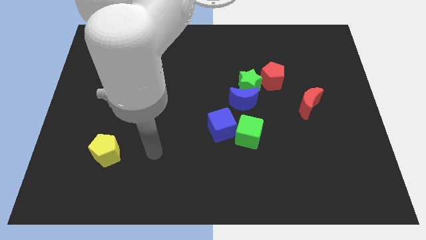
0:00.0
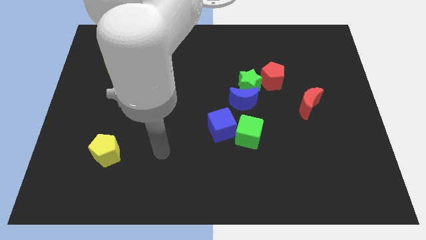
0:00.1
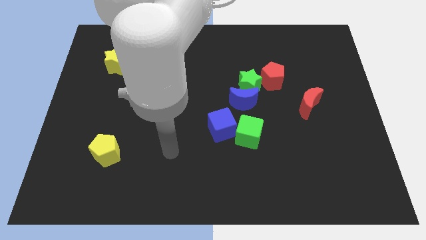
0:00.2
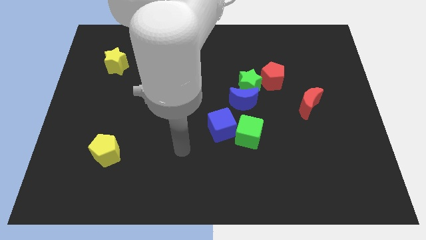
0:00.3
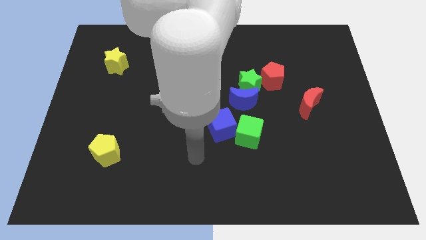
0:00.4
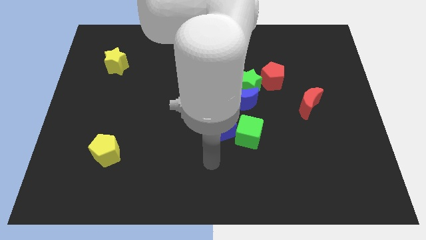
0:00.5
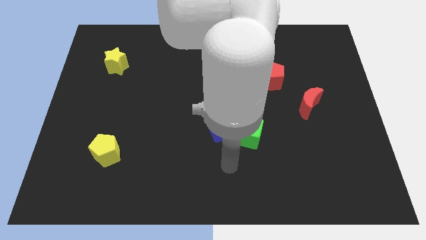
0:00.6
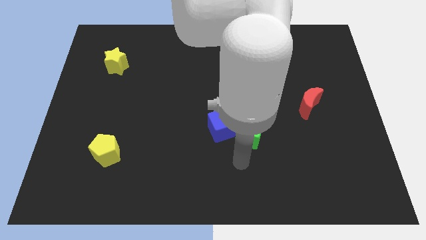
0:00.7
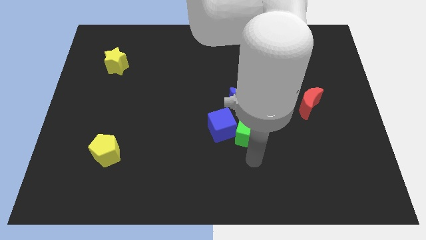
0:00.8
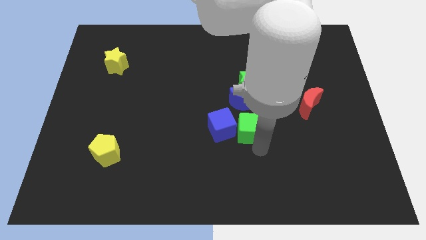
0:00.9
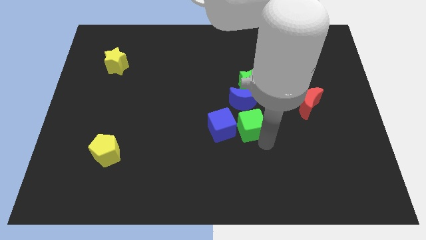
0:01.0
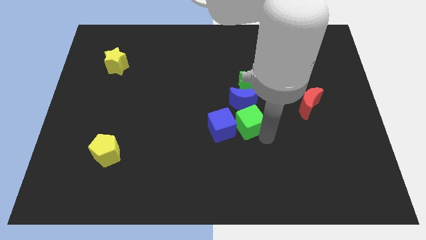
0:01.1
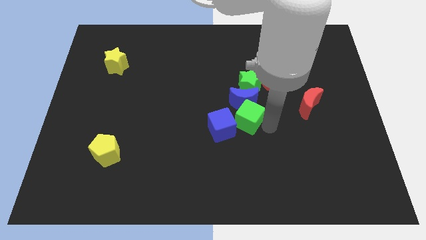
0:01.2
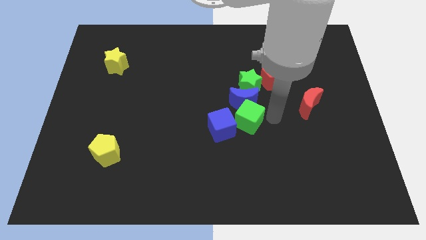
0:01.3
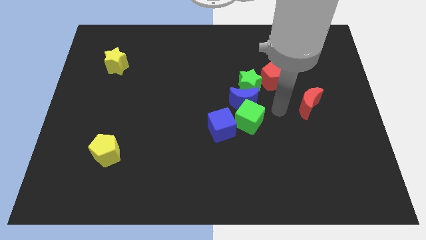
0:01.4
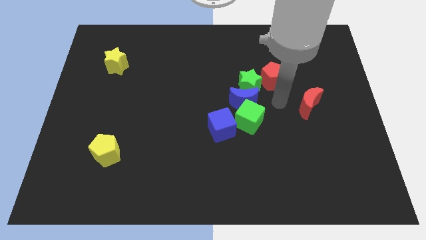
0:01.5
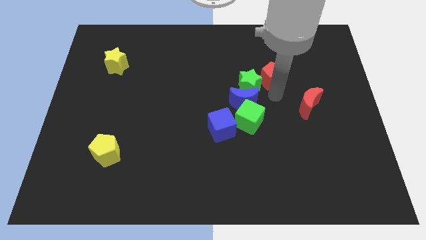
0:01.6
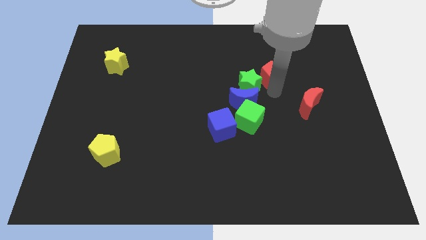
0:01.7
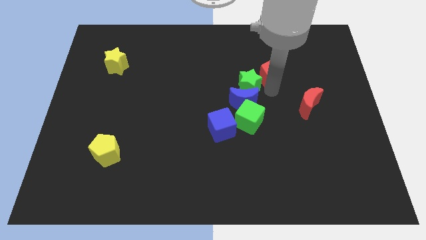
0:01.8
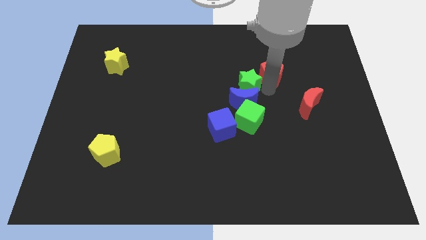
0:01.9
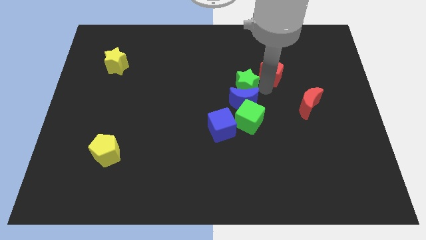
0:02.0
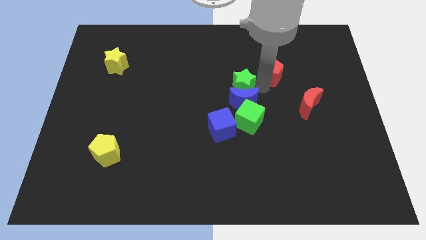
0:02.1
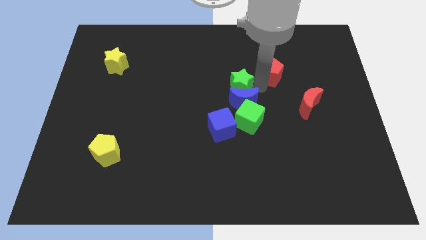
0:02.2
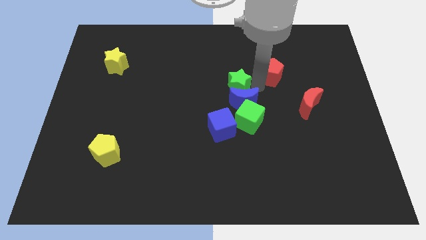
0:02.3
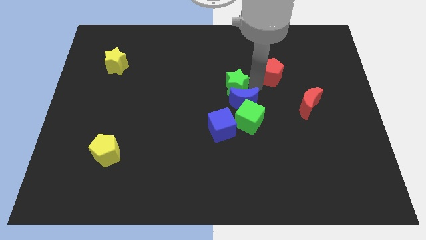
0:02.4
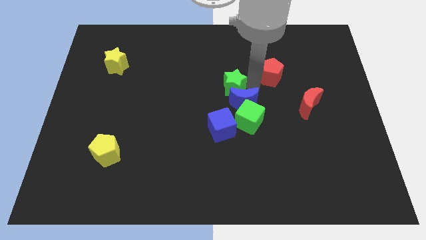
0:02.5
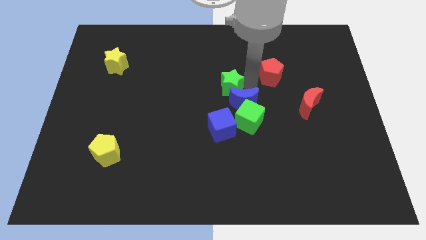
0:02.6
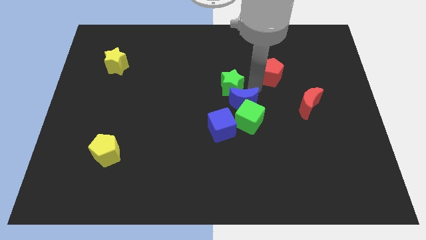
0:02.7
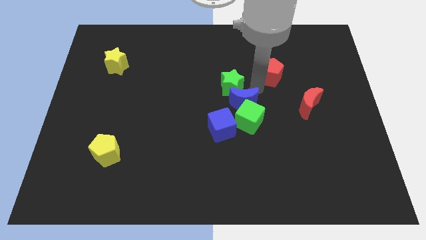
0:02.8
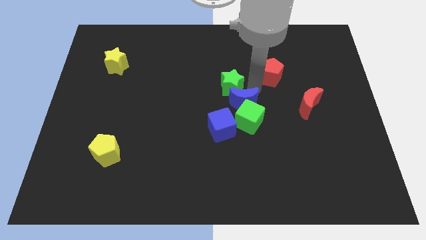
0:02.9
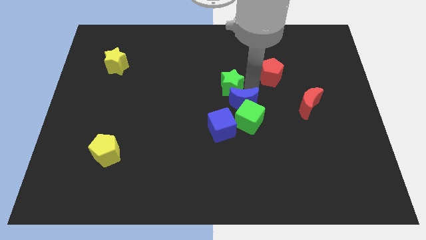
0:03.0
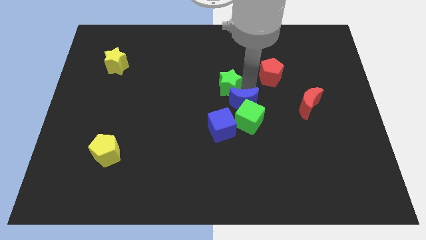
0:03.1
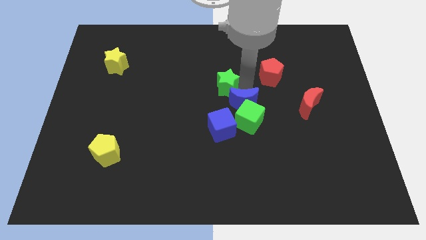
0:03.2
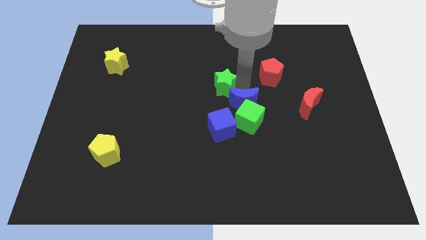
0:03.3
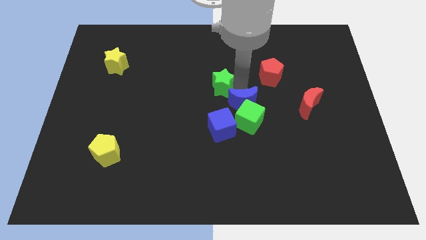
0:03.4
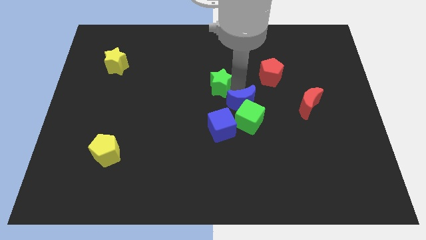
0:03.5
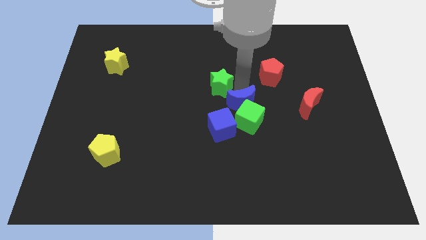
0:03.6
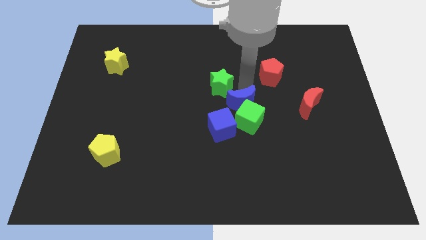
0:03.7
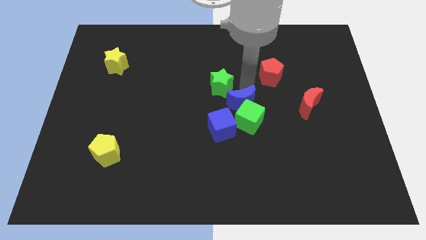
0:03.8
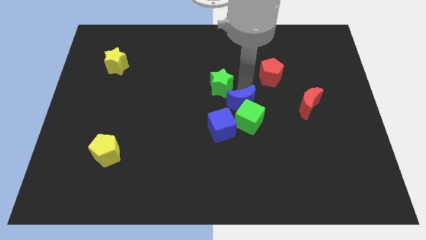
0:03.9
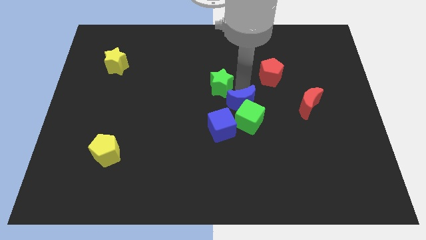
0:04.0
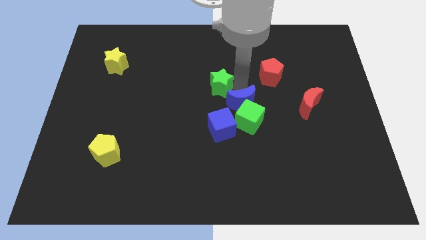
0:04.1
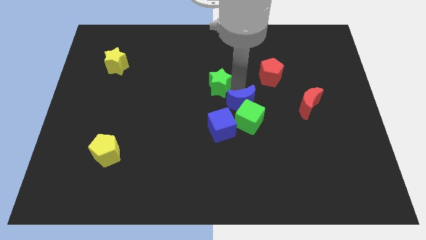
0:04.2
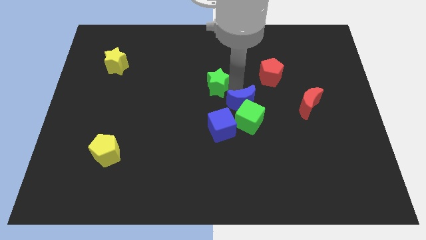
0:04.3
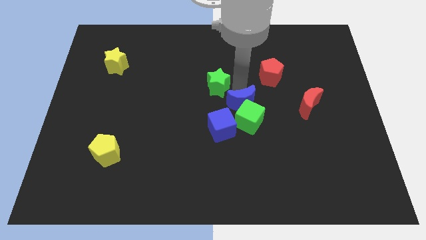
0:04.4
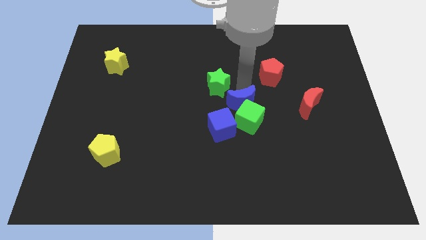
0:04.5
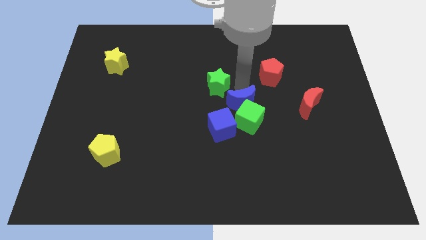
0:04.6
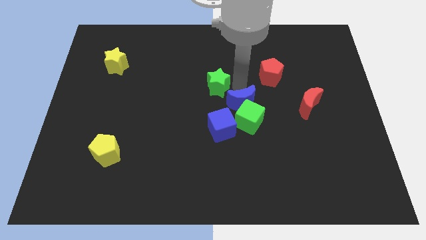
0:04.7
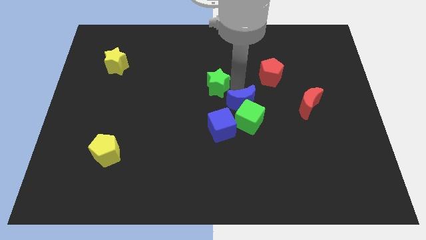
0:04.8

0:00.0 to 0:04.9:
move the green star away from the blue moon and red pentagon

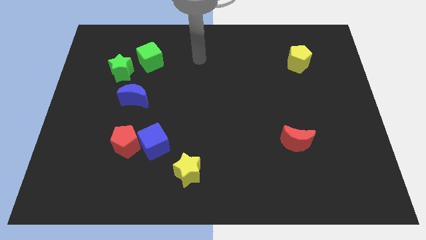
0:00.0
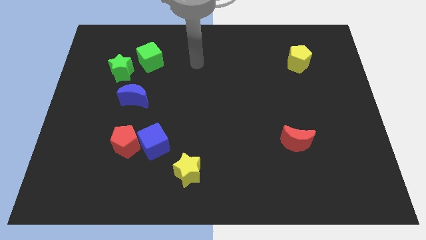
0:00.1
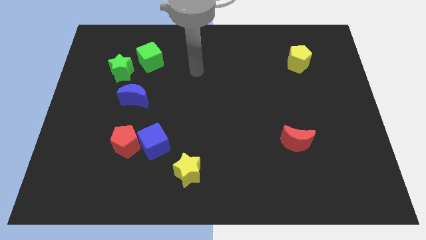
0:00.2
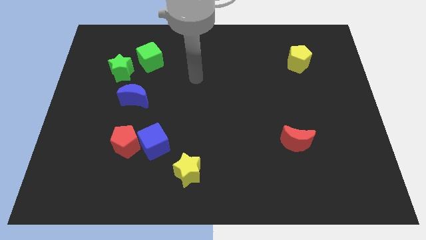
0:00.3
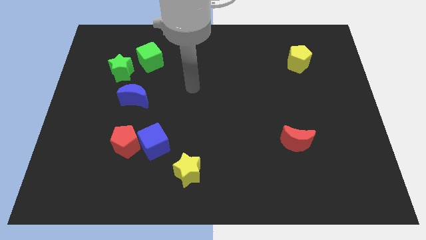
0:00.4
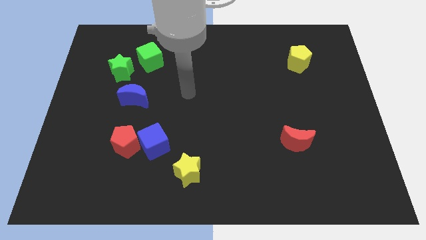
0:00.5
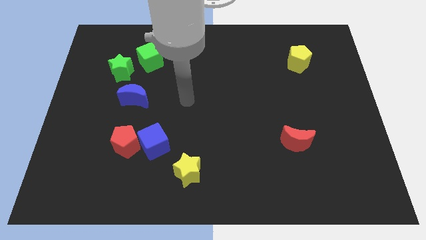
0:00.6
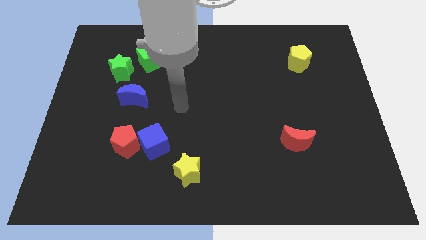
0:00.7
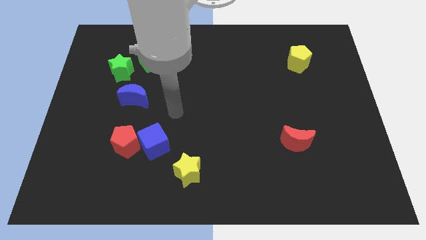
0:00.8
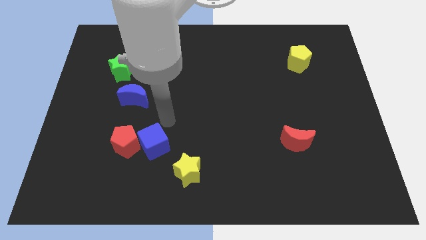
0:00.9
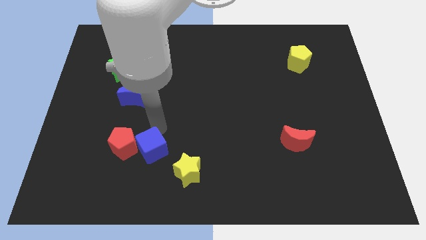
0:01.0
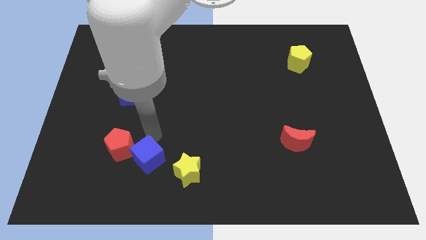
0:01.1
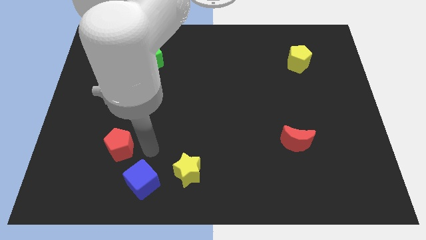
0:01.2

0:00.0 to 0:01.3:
move the red pentagon away from the blue cube

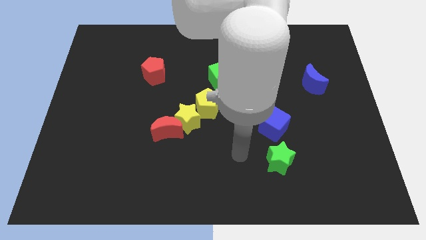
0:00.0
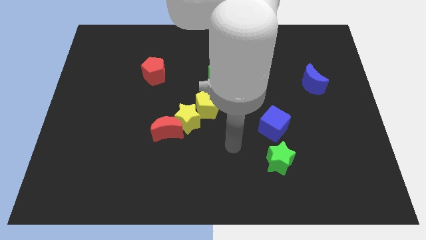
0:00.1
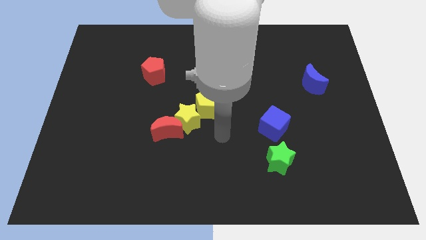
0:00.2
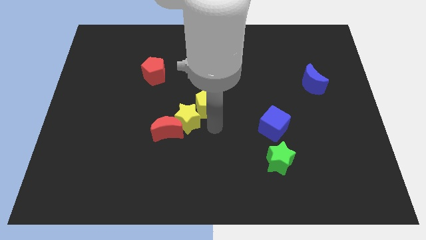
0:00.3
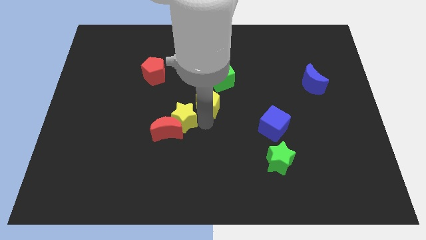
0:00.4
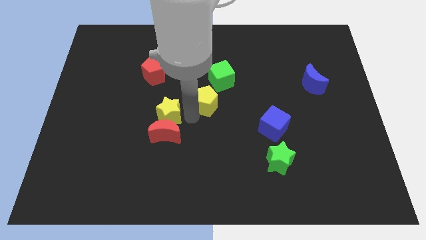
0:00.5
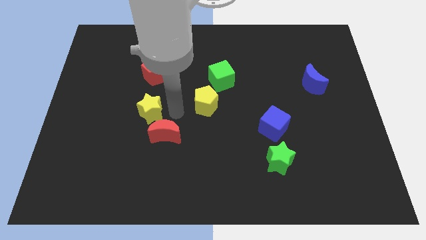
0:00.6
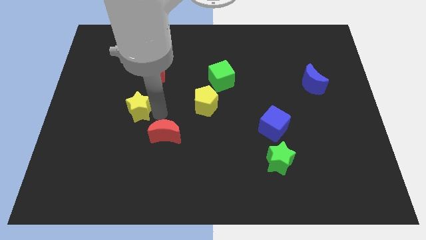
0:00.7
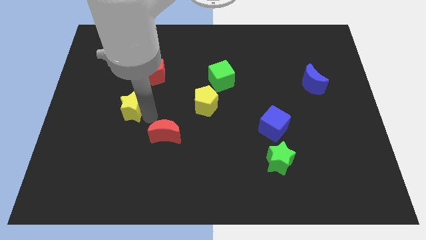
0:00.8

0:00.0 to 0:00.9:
move the red moon away from the yellow star

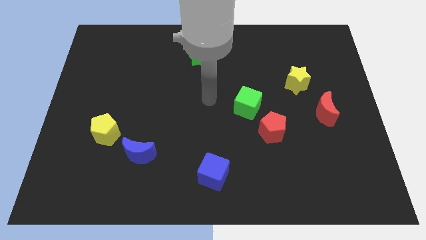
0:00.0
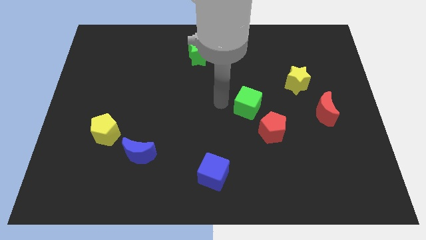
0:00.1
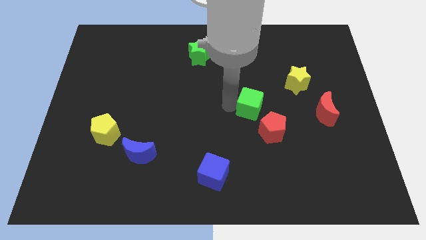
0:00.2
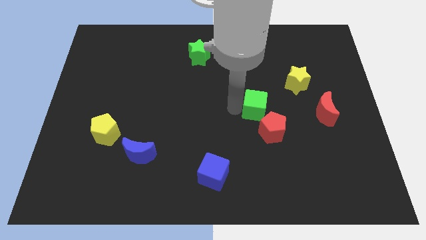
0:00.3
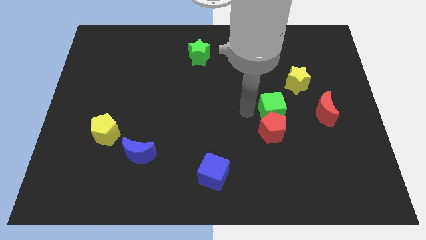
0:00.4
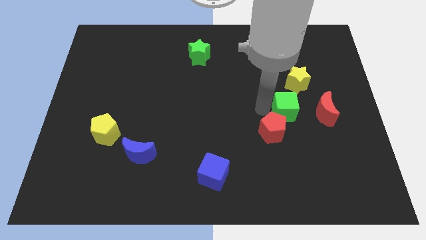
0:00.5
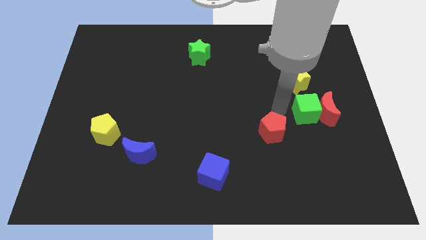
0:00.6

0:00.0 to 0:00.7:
pull the red pentagon apart from the green cube

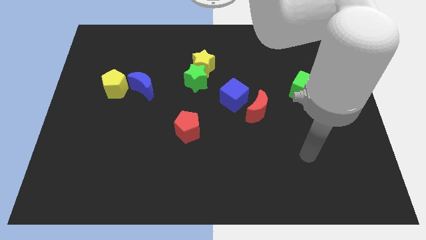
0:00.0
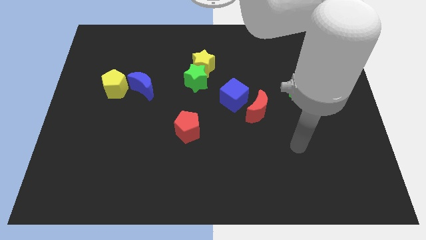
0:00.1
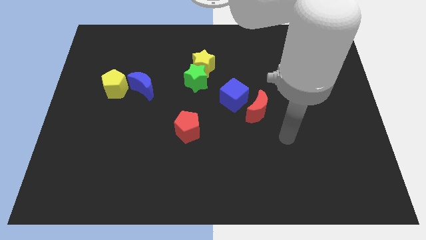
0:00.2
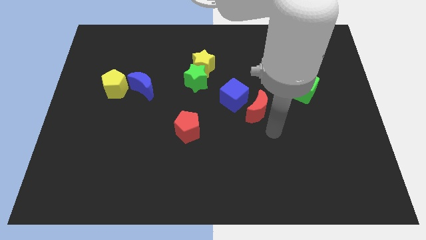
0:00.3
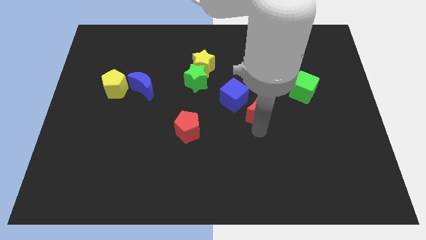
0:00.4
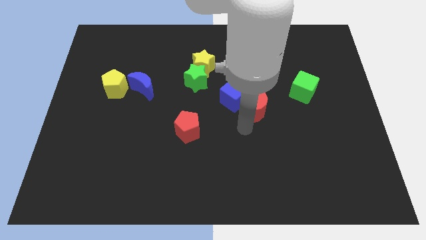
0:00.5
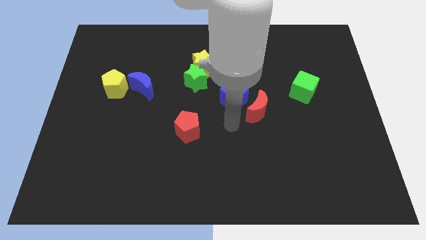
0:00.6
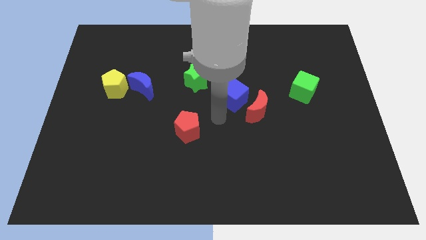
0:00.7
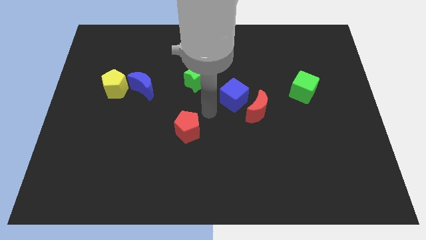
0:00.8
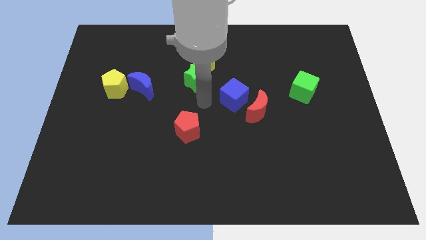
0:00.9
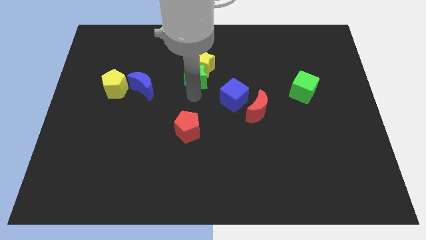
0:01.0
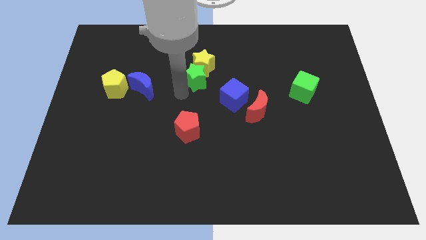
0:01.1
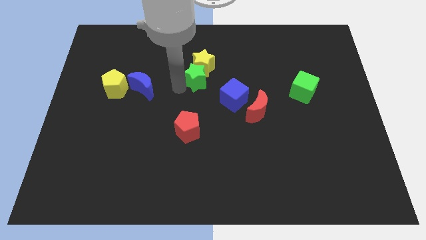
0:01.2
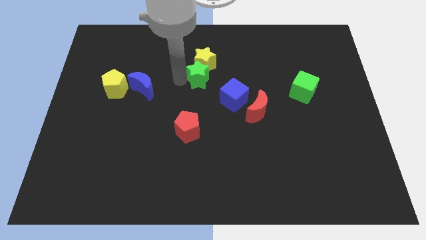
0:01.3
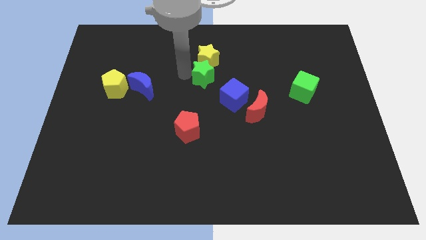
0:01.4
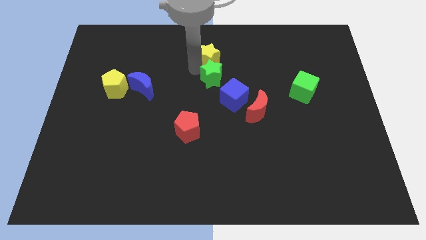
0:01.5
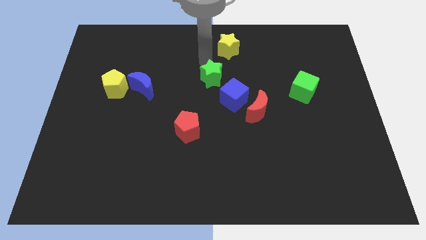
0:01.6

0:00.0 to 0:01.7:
move the green star away from the yellow star
